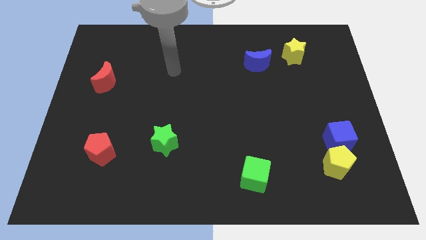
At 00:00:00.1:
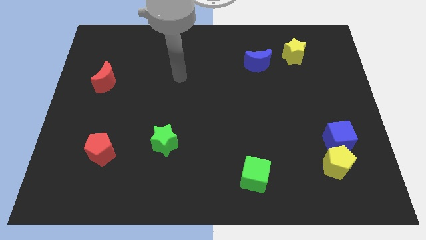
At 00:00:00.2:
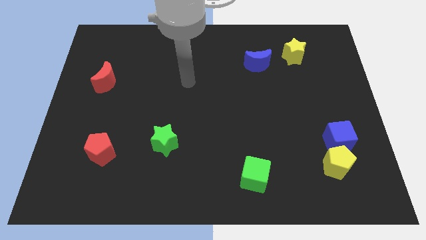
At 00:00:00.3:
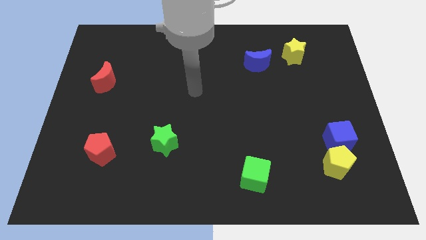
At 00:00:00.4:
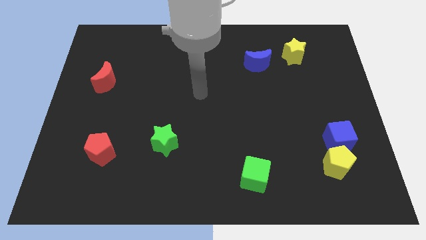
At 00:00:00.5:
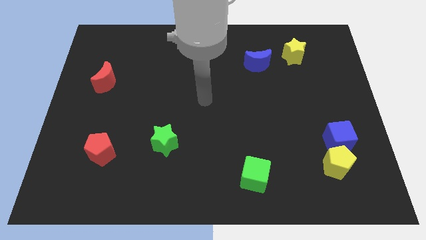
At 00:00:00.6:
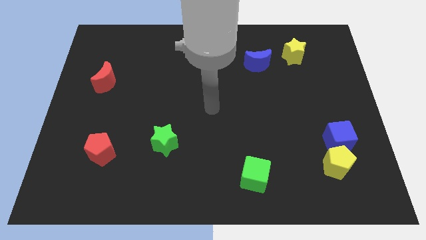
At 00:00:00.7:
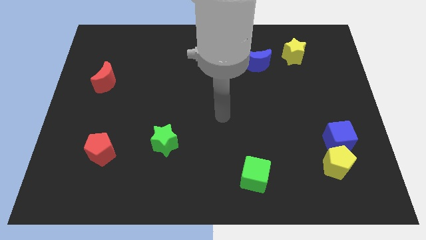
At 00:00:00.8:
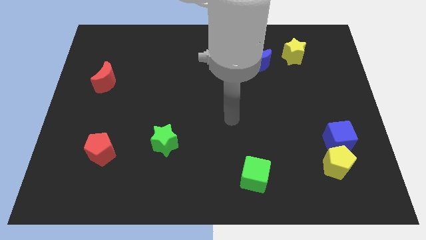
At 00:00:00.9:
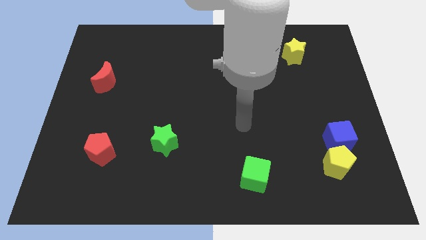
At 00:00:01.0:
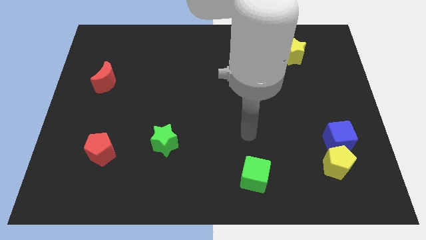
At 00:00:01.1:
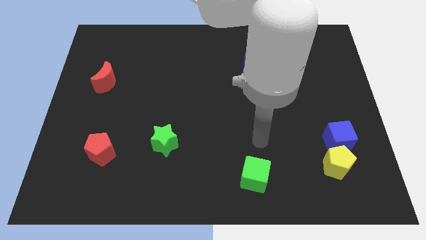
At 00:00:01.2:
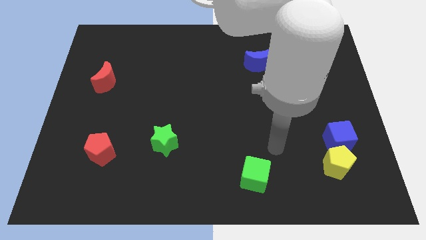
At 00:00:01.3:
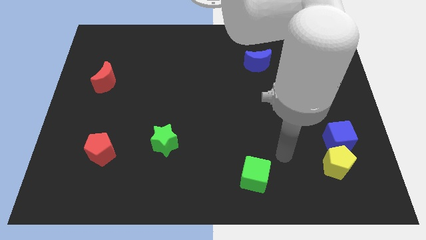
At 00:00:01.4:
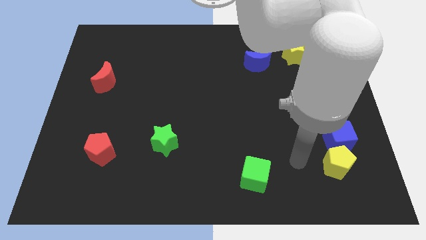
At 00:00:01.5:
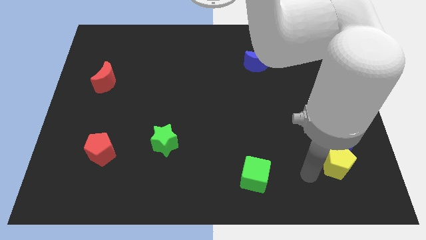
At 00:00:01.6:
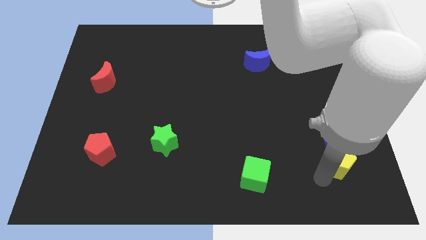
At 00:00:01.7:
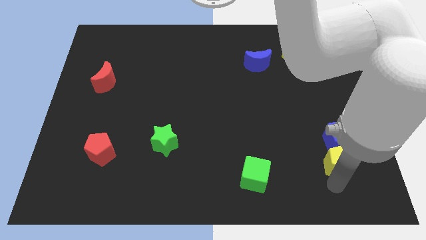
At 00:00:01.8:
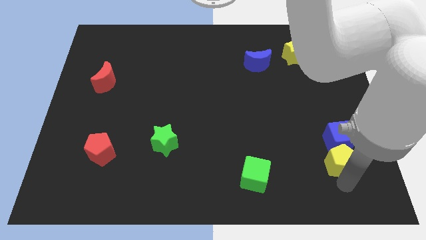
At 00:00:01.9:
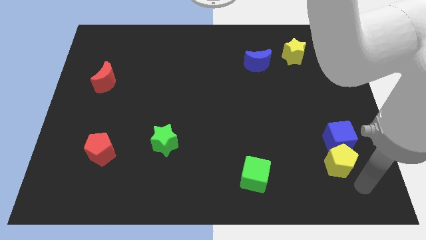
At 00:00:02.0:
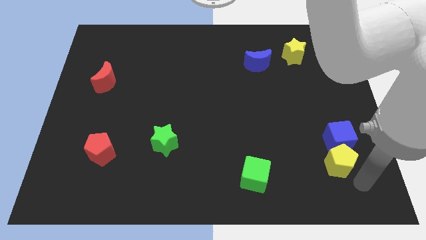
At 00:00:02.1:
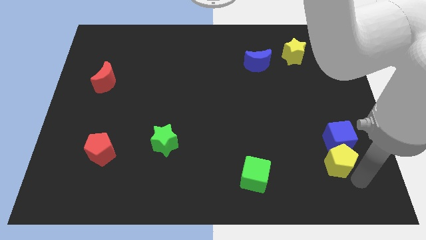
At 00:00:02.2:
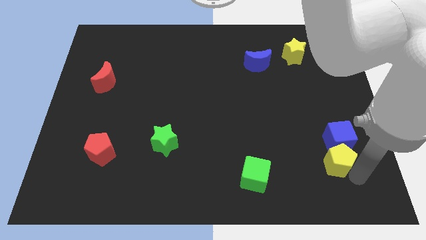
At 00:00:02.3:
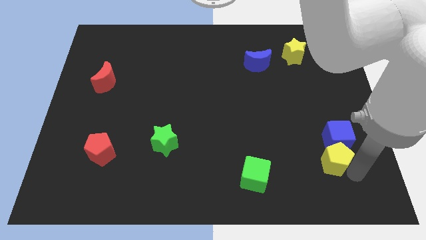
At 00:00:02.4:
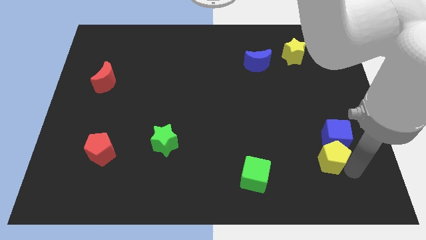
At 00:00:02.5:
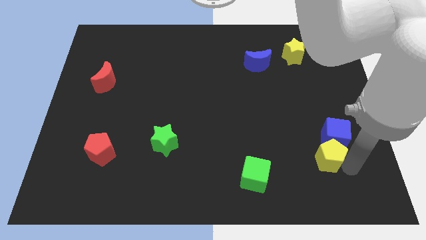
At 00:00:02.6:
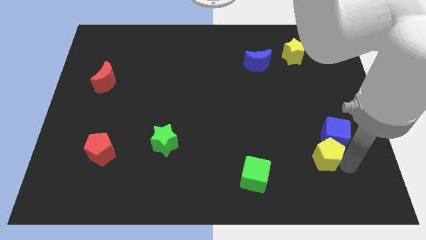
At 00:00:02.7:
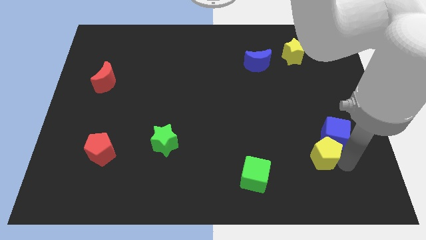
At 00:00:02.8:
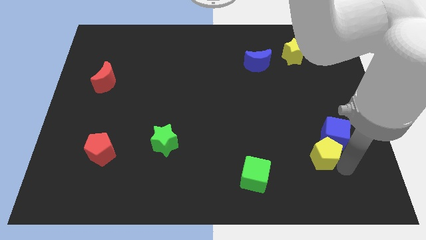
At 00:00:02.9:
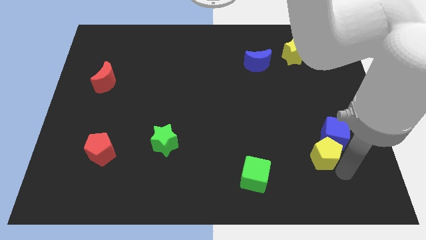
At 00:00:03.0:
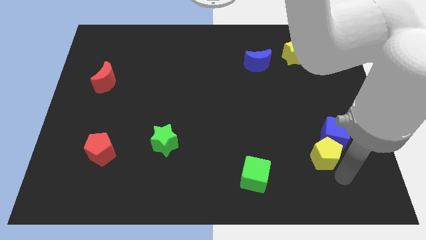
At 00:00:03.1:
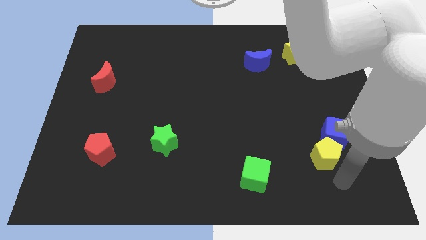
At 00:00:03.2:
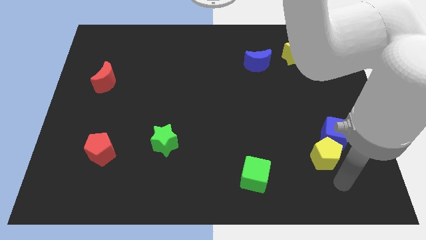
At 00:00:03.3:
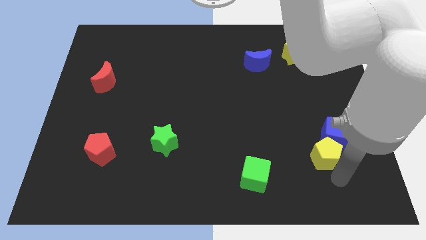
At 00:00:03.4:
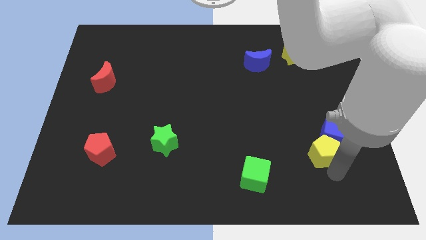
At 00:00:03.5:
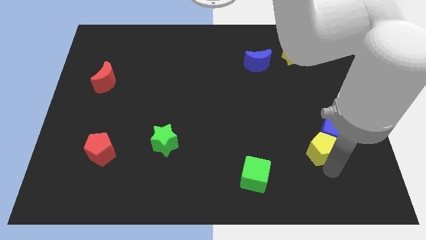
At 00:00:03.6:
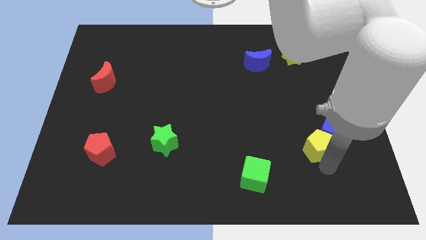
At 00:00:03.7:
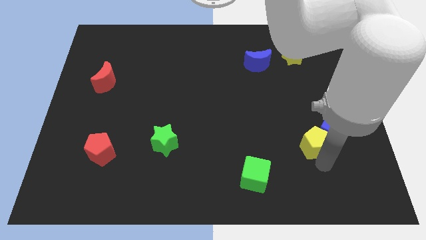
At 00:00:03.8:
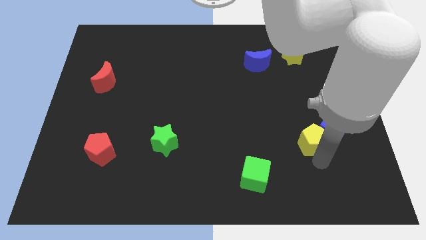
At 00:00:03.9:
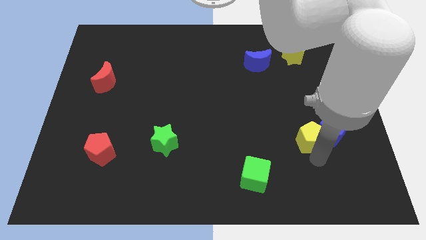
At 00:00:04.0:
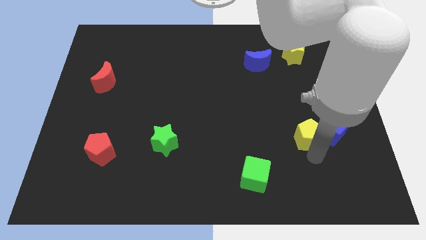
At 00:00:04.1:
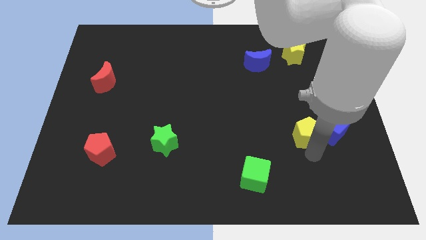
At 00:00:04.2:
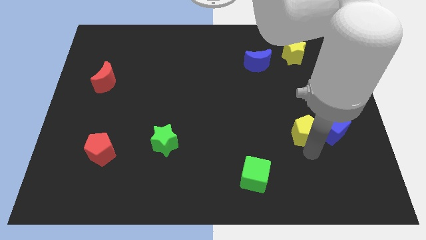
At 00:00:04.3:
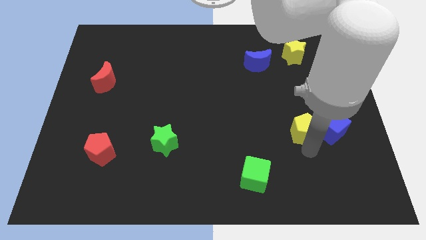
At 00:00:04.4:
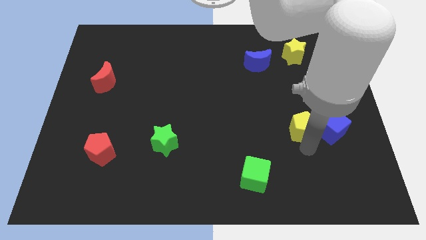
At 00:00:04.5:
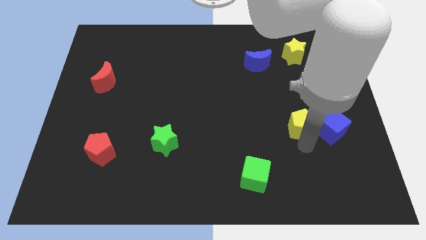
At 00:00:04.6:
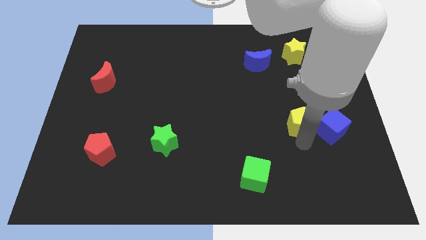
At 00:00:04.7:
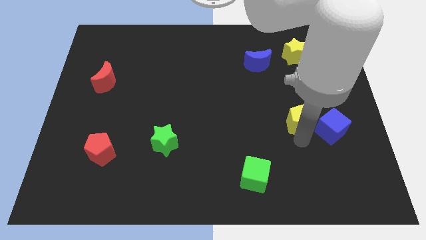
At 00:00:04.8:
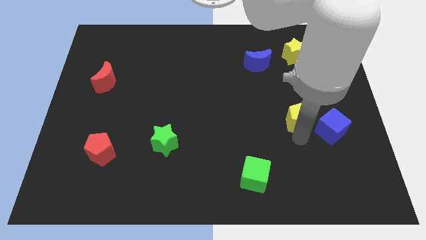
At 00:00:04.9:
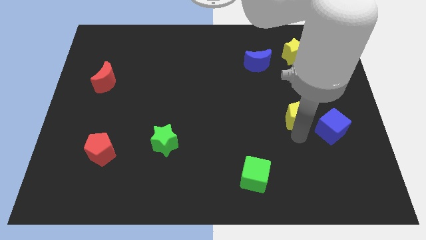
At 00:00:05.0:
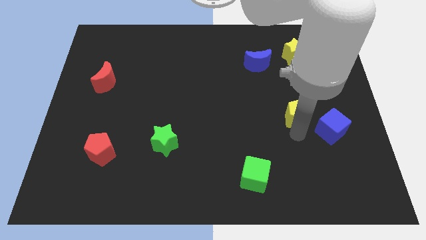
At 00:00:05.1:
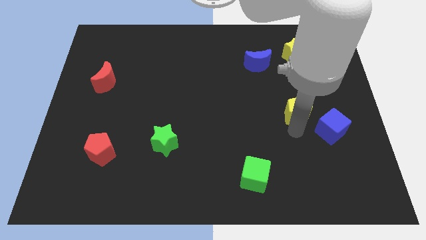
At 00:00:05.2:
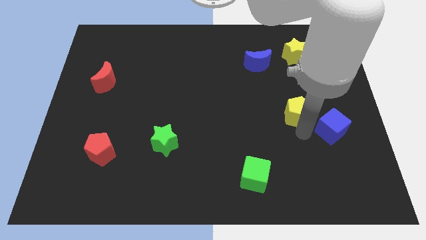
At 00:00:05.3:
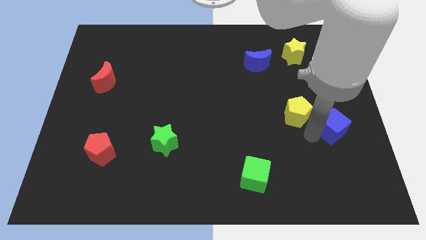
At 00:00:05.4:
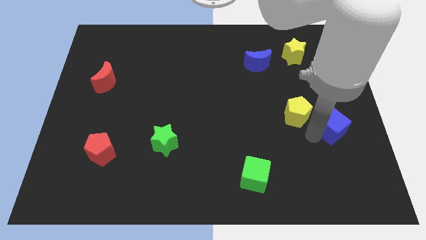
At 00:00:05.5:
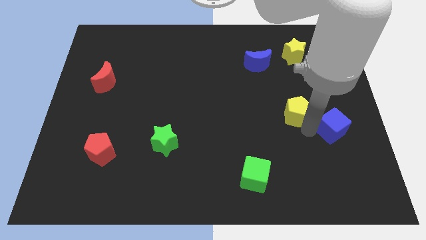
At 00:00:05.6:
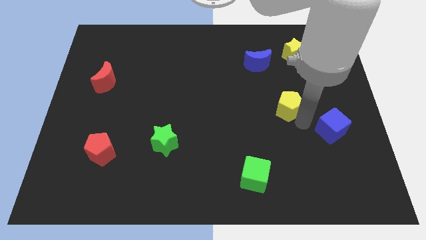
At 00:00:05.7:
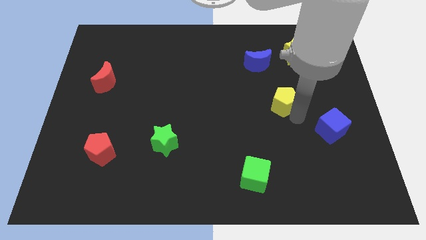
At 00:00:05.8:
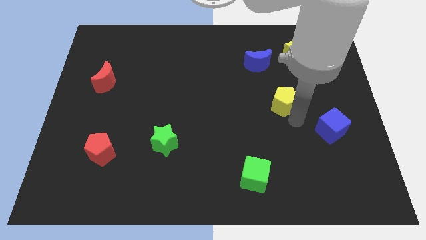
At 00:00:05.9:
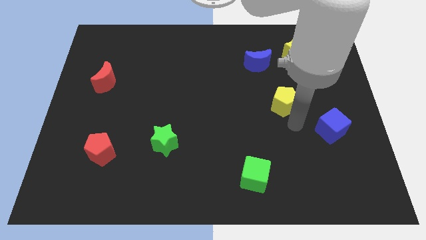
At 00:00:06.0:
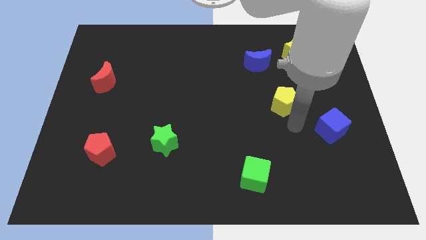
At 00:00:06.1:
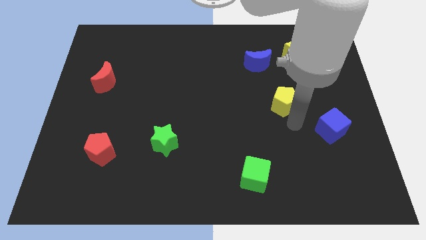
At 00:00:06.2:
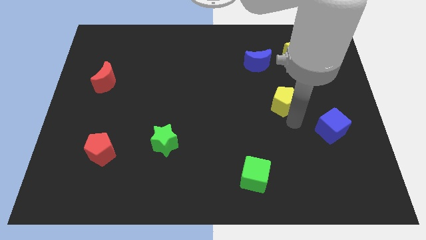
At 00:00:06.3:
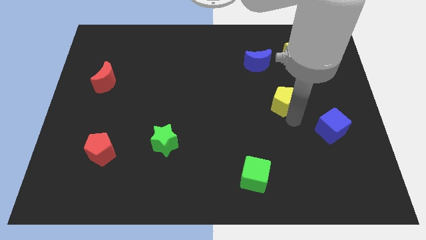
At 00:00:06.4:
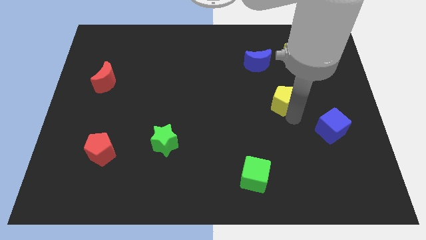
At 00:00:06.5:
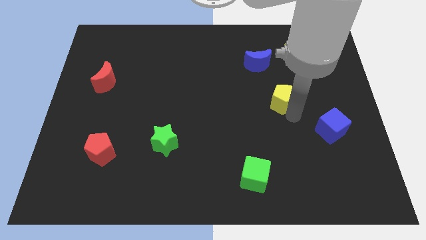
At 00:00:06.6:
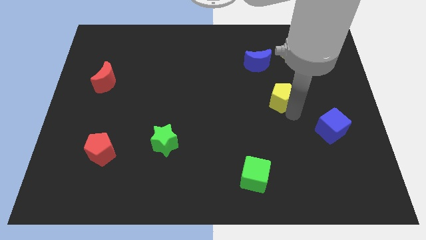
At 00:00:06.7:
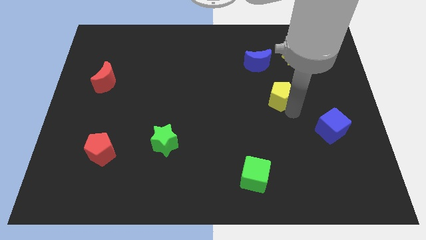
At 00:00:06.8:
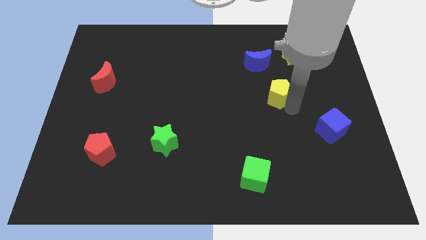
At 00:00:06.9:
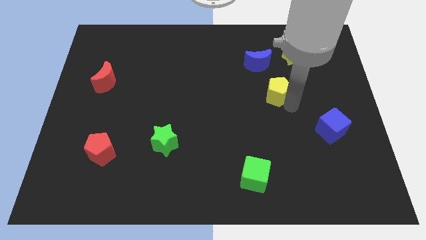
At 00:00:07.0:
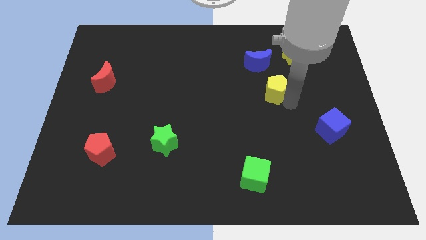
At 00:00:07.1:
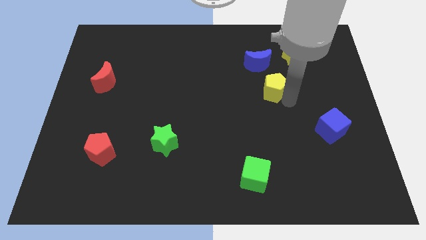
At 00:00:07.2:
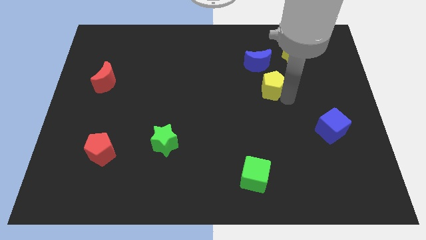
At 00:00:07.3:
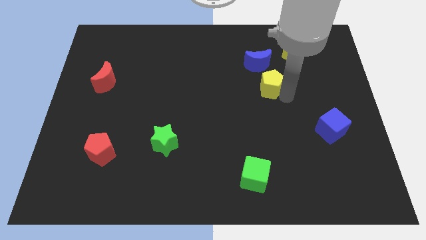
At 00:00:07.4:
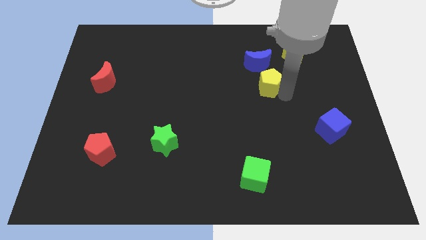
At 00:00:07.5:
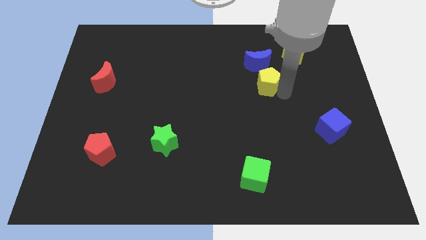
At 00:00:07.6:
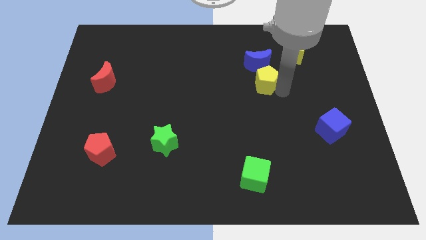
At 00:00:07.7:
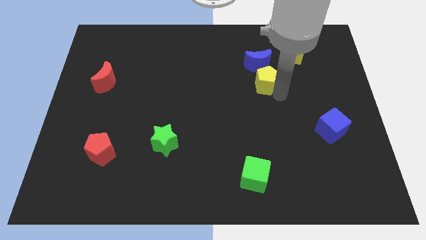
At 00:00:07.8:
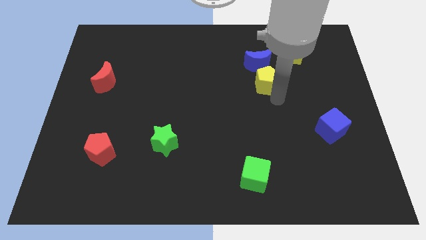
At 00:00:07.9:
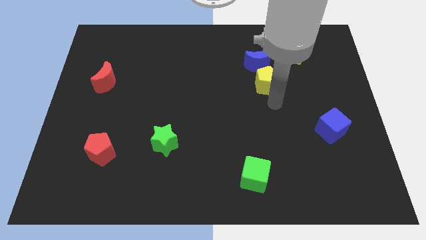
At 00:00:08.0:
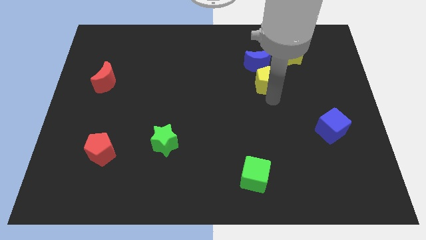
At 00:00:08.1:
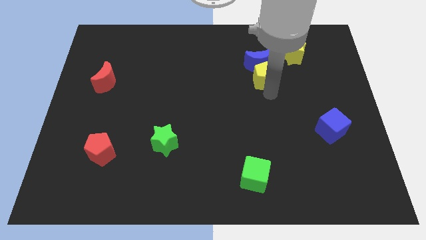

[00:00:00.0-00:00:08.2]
push the yellow pentagon close to the blue moon
